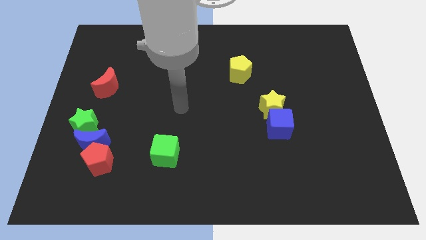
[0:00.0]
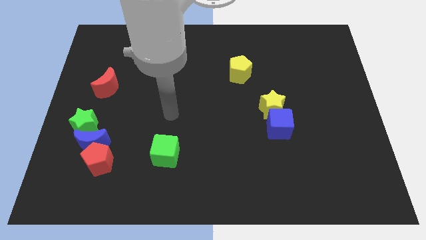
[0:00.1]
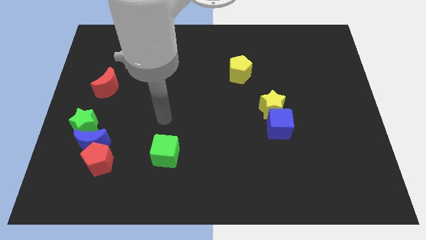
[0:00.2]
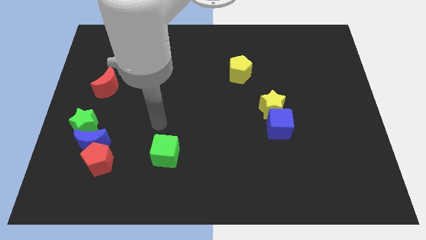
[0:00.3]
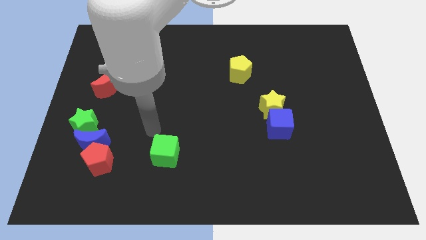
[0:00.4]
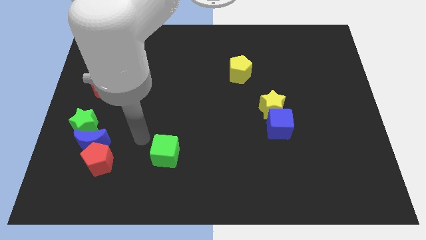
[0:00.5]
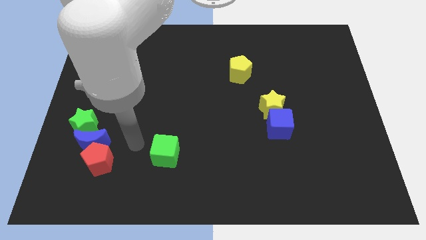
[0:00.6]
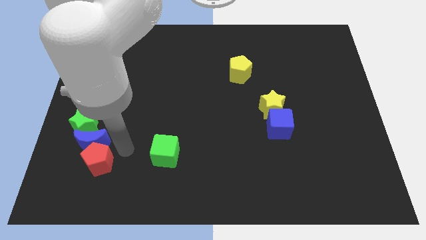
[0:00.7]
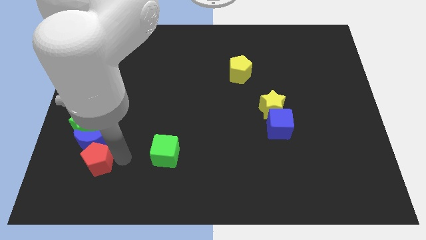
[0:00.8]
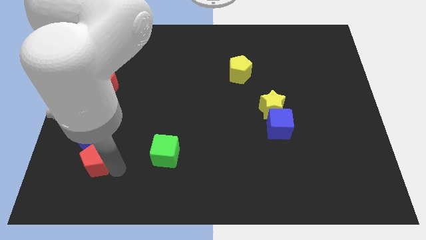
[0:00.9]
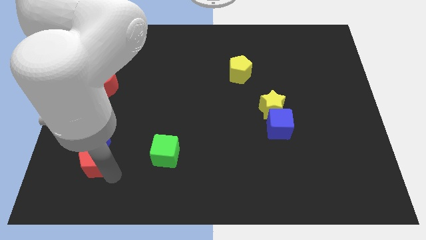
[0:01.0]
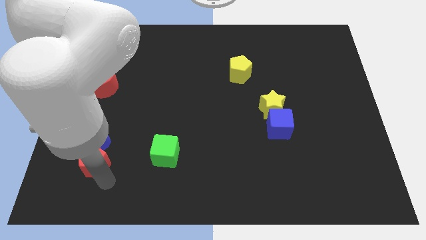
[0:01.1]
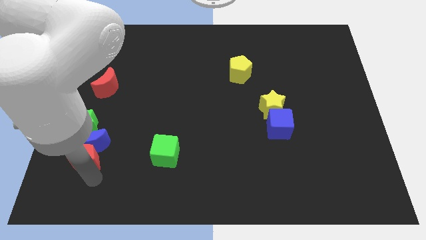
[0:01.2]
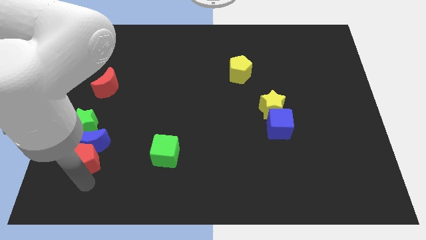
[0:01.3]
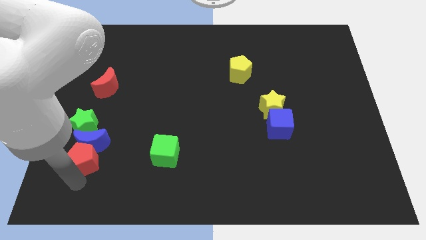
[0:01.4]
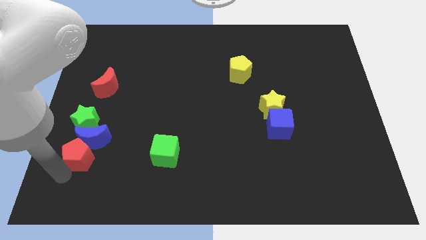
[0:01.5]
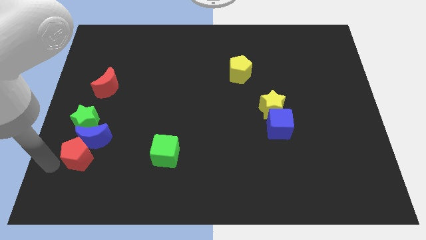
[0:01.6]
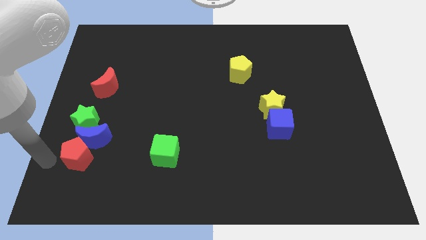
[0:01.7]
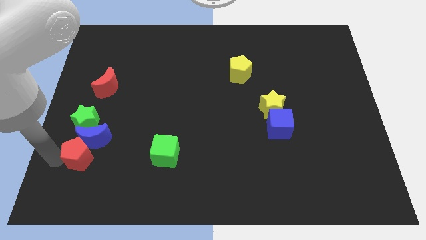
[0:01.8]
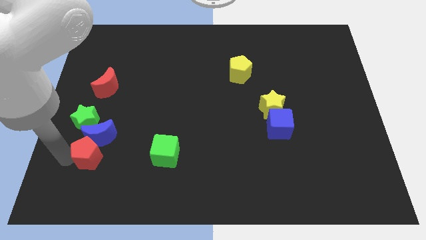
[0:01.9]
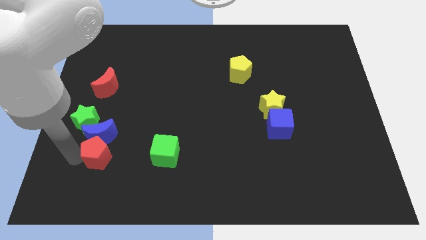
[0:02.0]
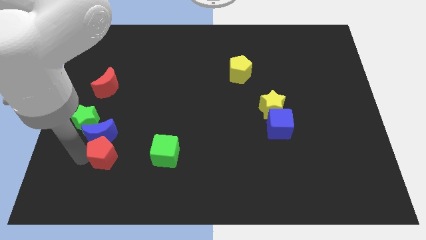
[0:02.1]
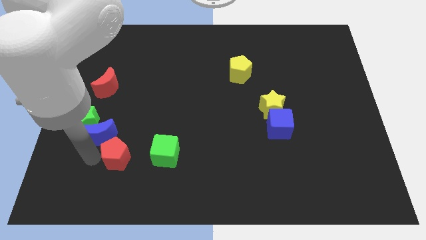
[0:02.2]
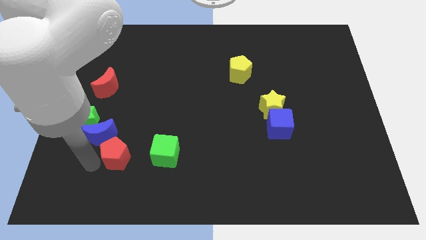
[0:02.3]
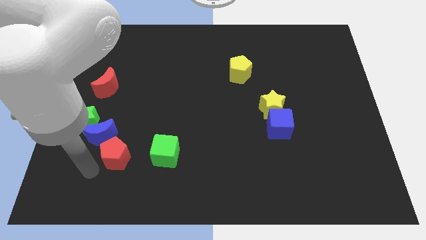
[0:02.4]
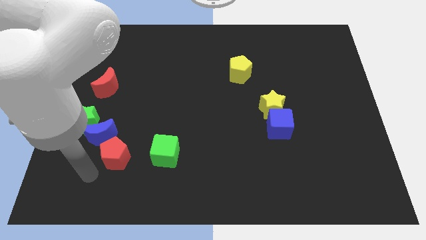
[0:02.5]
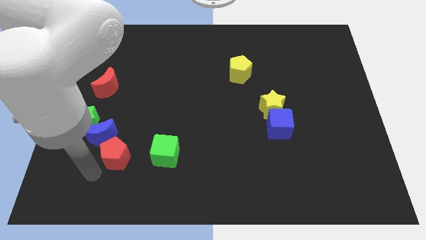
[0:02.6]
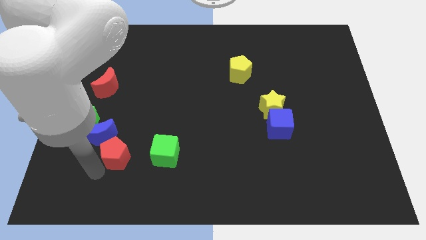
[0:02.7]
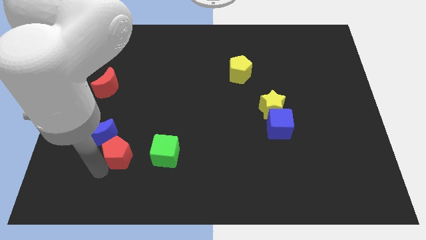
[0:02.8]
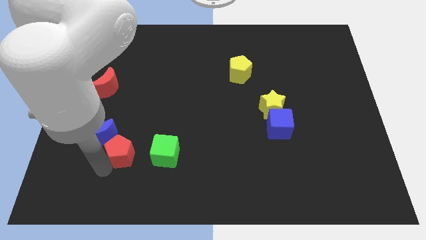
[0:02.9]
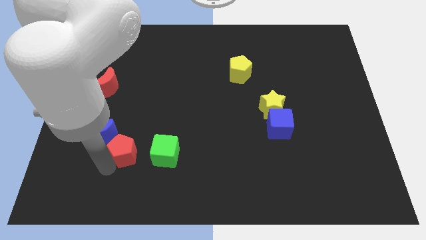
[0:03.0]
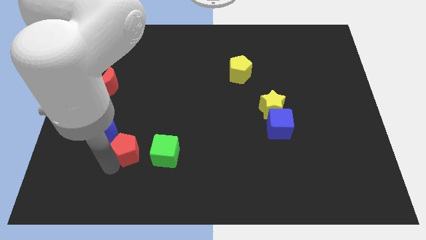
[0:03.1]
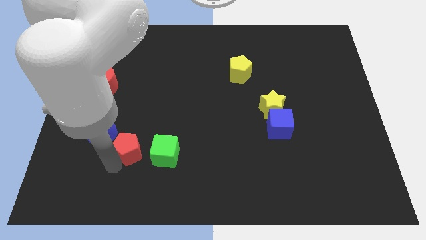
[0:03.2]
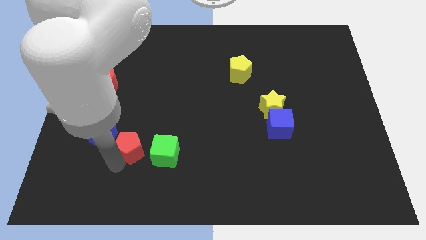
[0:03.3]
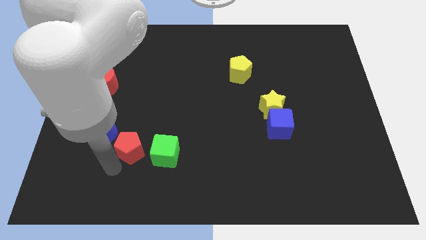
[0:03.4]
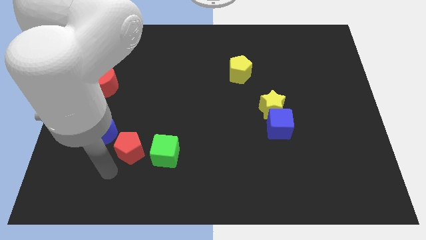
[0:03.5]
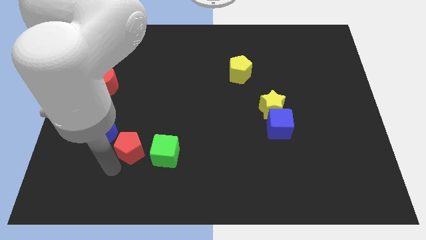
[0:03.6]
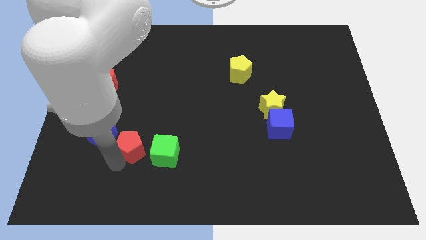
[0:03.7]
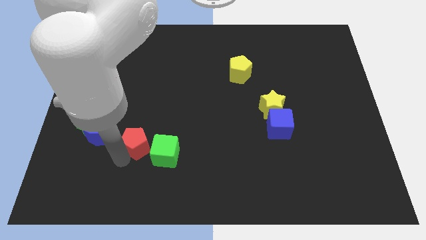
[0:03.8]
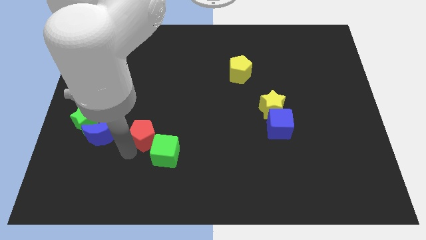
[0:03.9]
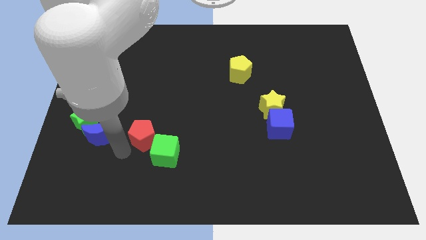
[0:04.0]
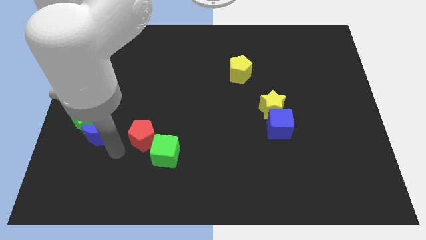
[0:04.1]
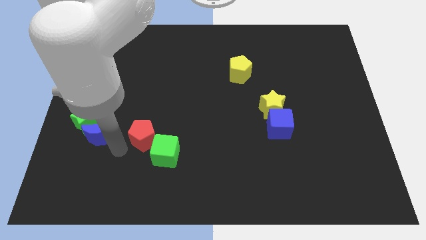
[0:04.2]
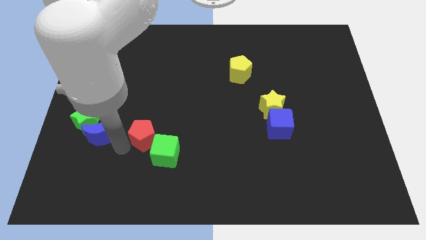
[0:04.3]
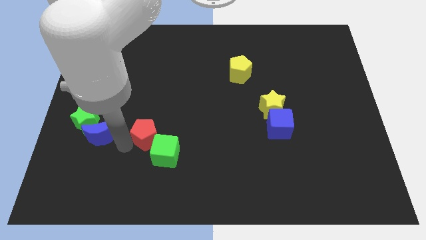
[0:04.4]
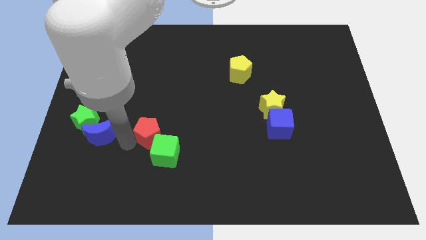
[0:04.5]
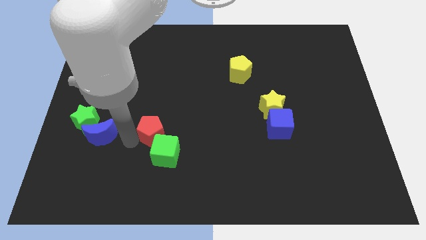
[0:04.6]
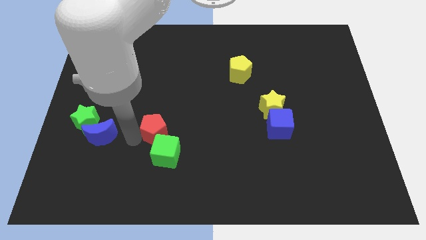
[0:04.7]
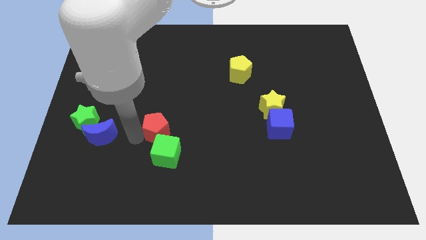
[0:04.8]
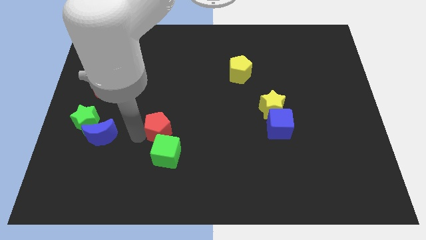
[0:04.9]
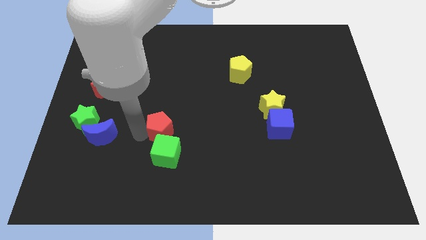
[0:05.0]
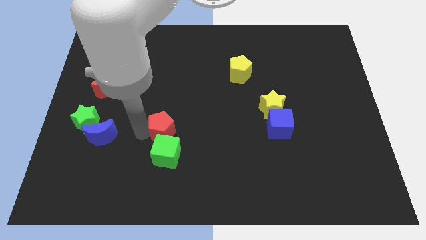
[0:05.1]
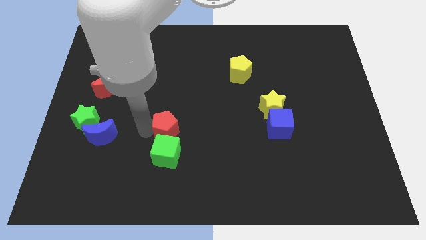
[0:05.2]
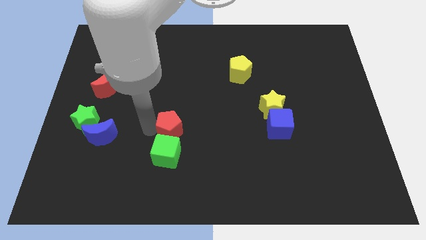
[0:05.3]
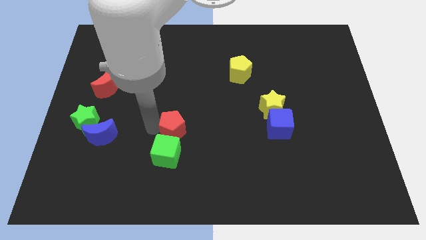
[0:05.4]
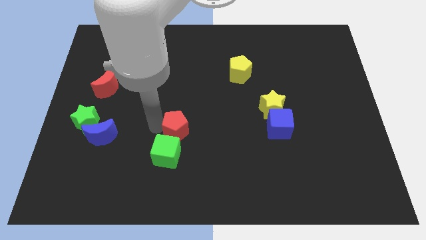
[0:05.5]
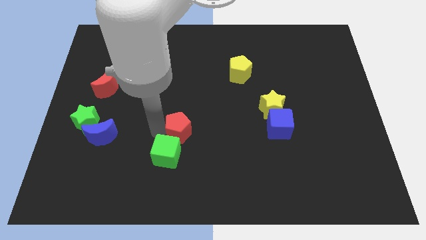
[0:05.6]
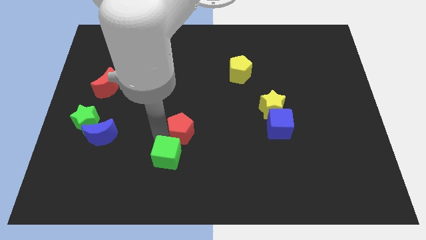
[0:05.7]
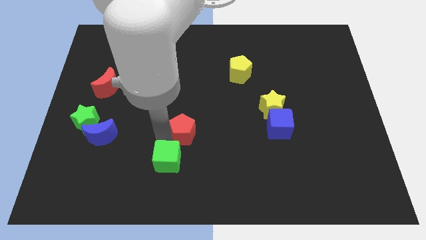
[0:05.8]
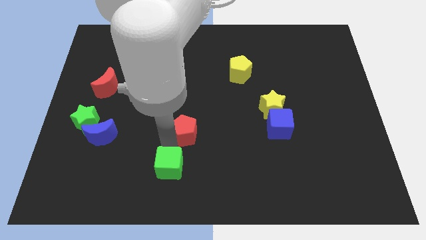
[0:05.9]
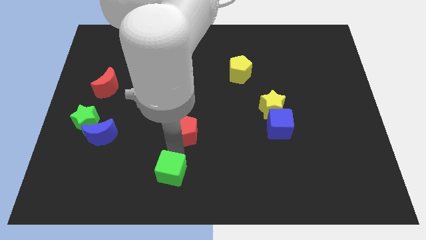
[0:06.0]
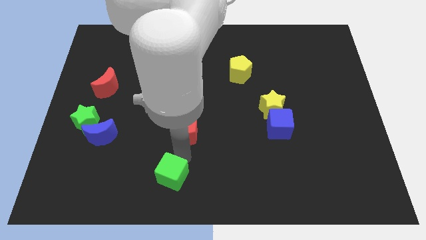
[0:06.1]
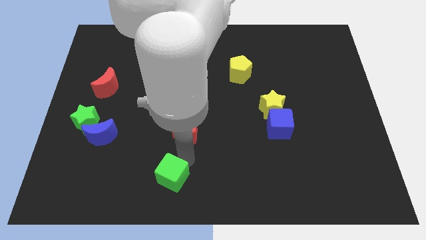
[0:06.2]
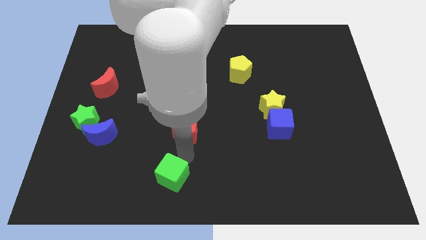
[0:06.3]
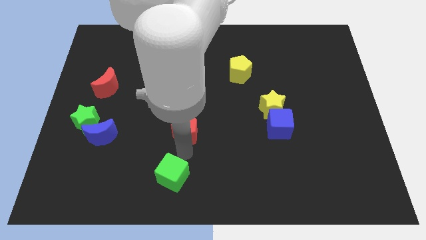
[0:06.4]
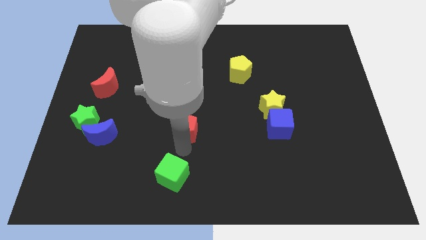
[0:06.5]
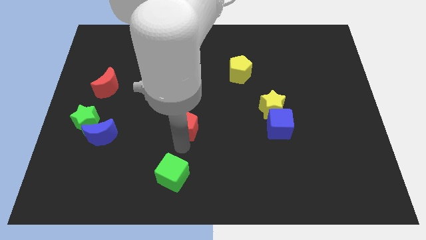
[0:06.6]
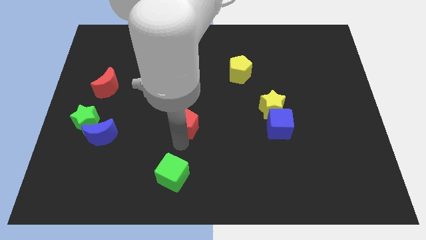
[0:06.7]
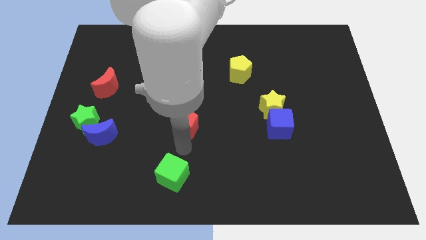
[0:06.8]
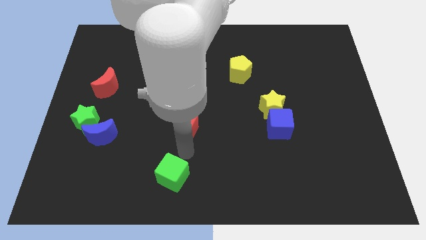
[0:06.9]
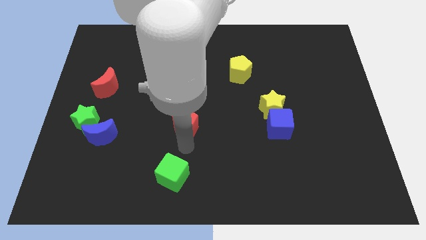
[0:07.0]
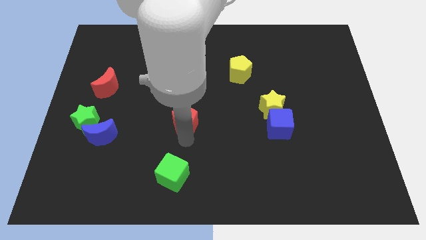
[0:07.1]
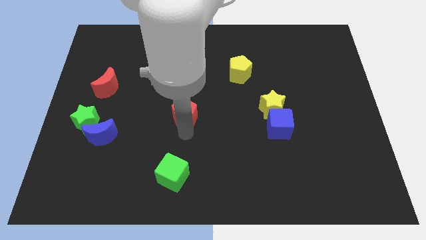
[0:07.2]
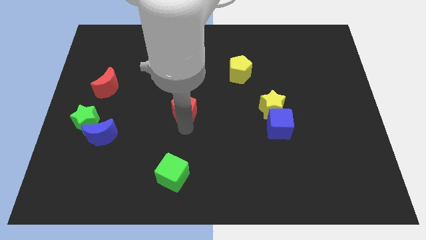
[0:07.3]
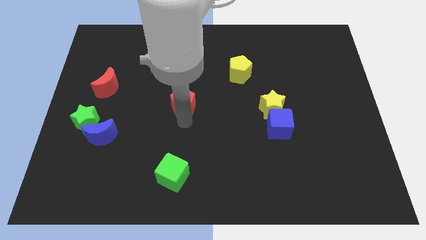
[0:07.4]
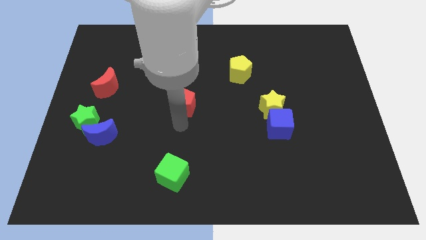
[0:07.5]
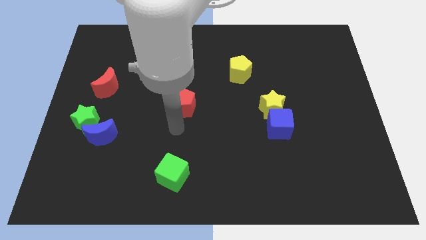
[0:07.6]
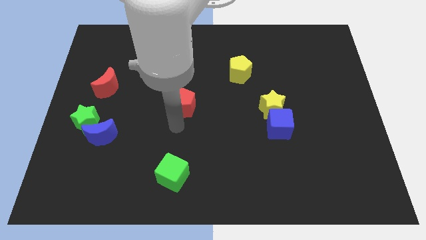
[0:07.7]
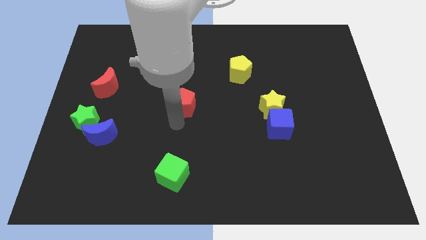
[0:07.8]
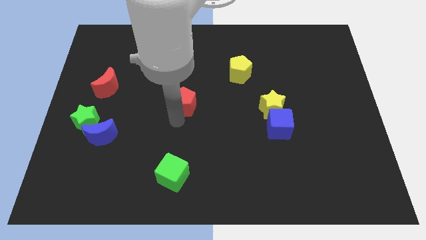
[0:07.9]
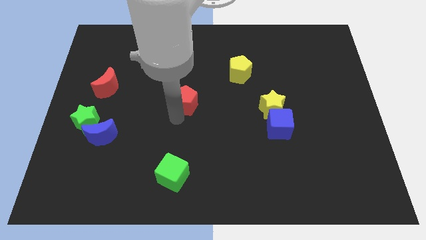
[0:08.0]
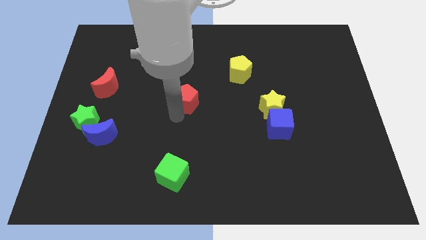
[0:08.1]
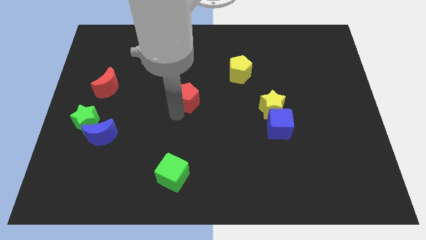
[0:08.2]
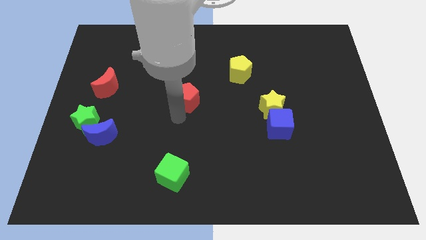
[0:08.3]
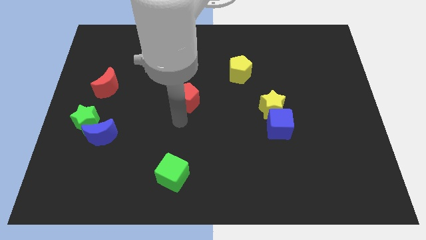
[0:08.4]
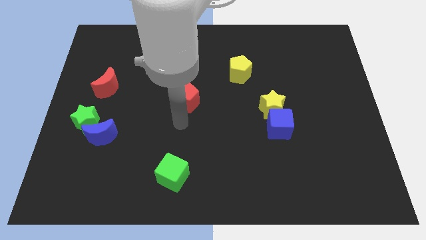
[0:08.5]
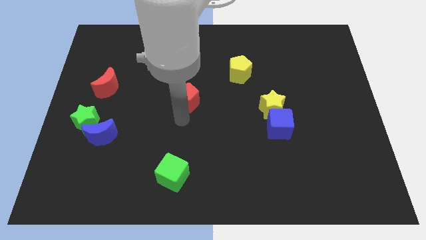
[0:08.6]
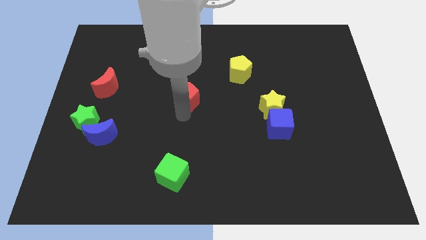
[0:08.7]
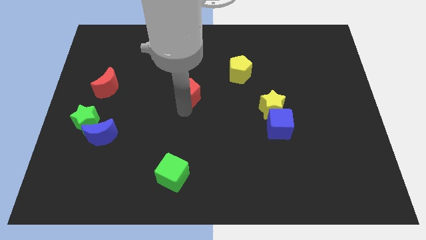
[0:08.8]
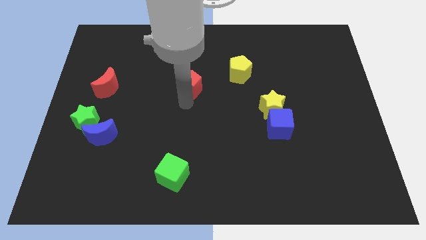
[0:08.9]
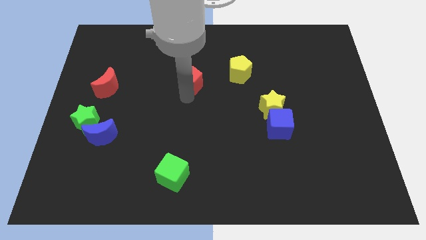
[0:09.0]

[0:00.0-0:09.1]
slide the red pentagon left of the yellow pentagon
